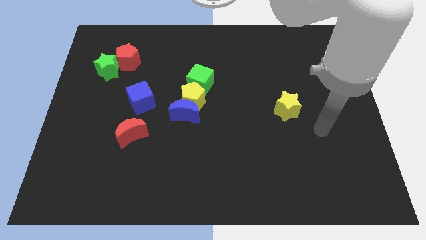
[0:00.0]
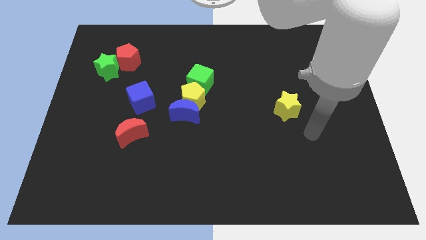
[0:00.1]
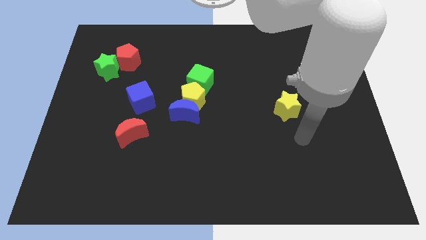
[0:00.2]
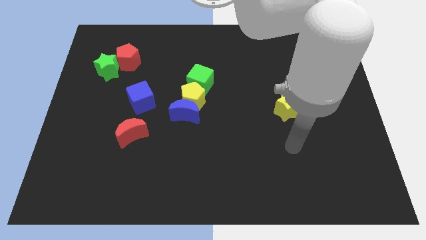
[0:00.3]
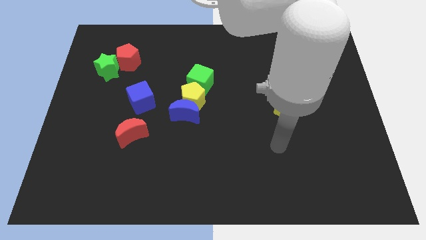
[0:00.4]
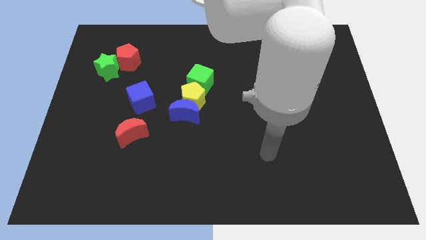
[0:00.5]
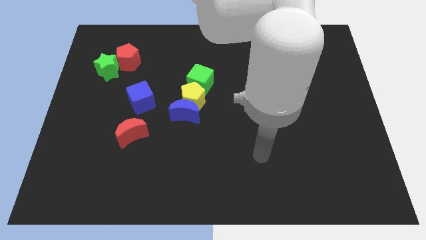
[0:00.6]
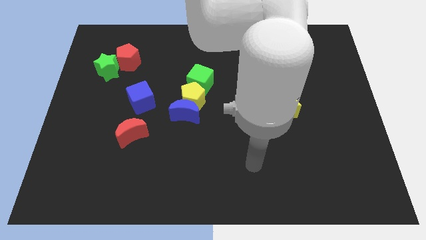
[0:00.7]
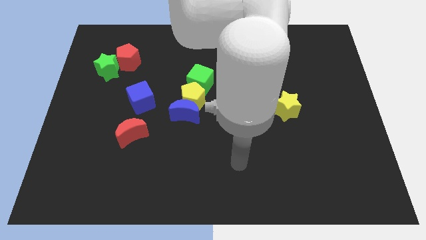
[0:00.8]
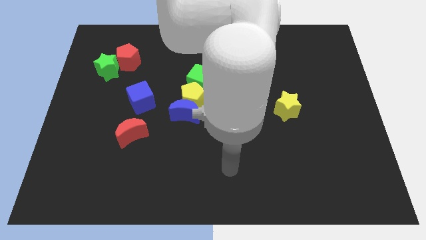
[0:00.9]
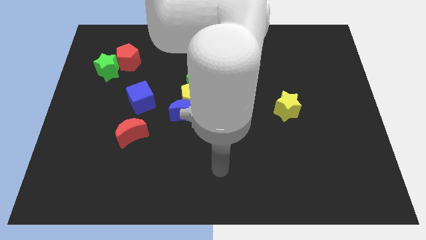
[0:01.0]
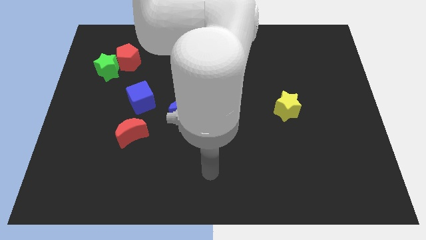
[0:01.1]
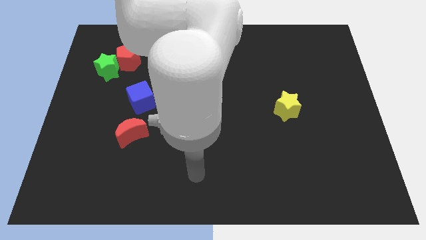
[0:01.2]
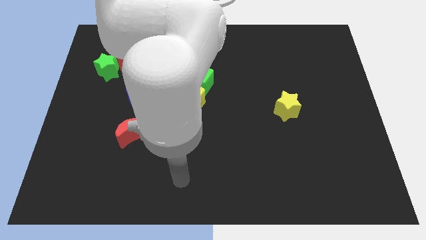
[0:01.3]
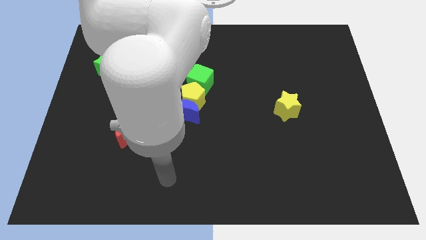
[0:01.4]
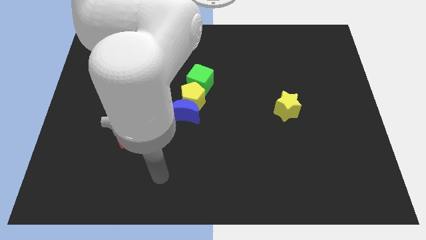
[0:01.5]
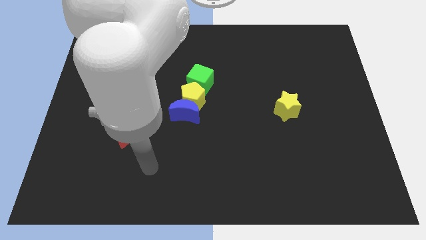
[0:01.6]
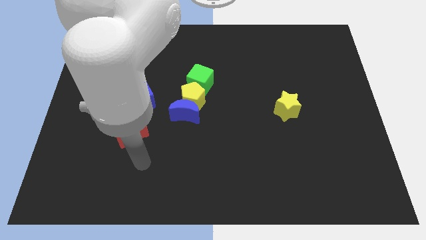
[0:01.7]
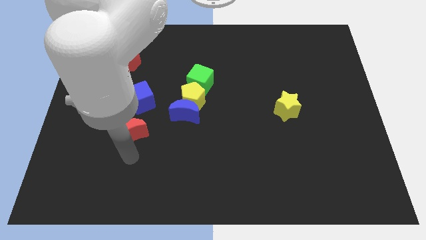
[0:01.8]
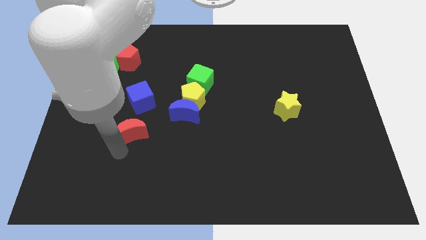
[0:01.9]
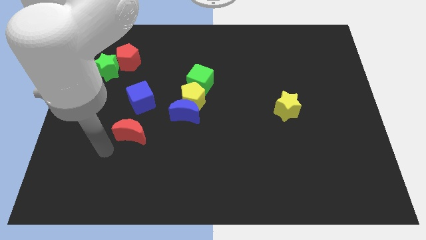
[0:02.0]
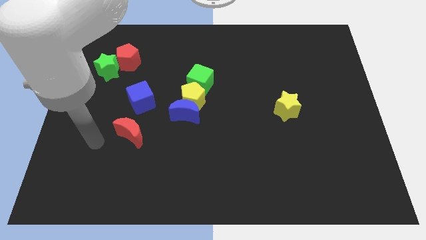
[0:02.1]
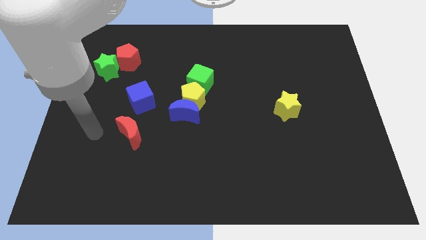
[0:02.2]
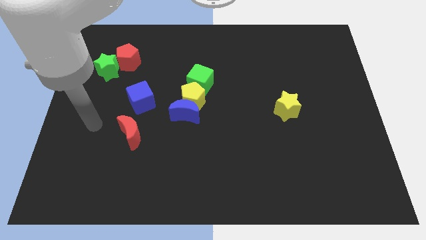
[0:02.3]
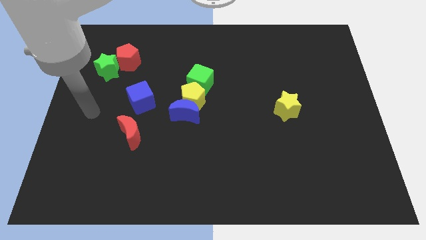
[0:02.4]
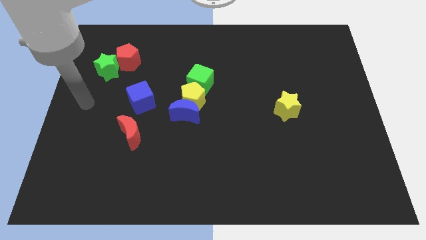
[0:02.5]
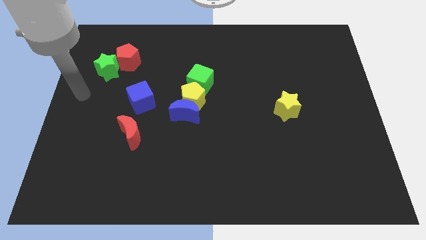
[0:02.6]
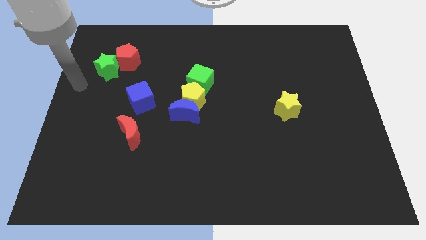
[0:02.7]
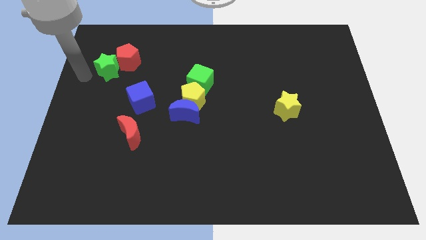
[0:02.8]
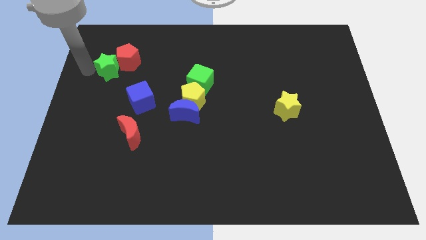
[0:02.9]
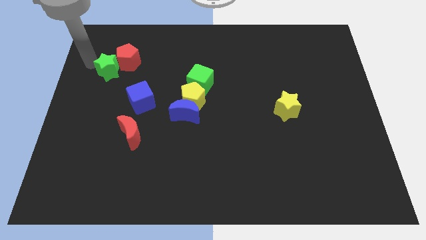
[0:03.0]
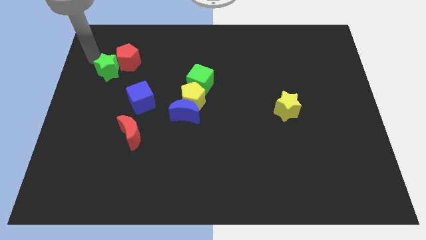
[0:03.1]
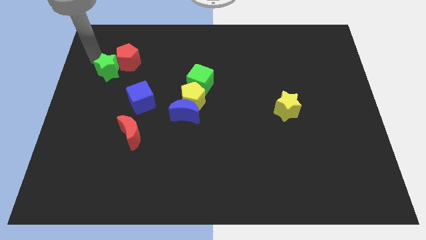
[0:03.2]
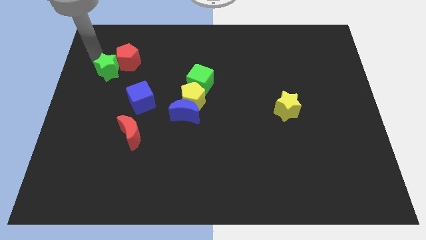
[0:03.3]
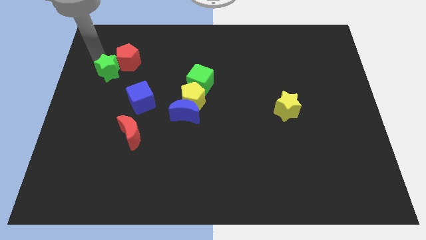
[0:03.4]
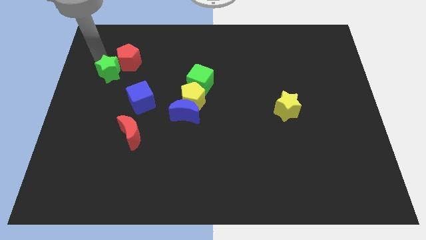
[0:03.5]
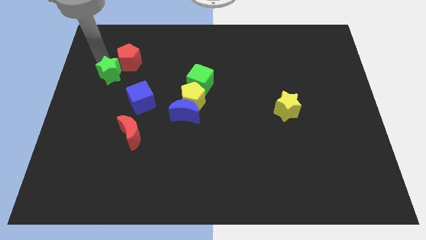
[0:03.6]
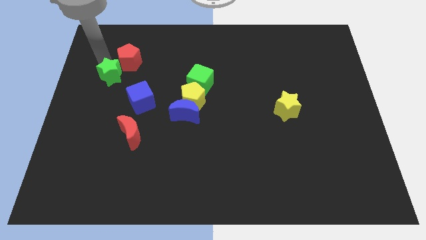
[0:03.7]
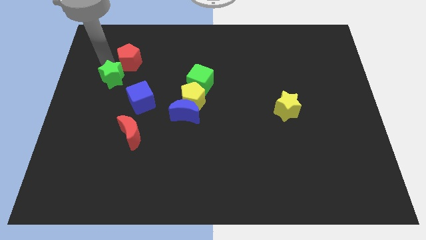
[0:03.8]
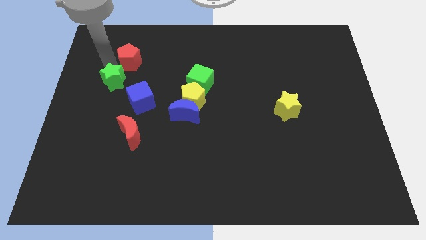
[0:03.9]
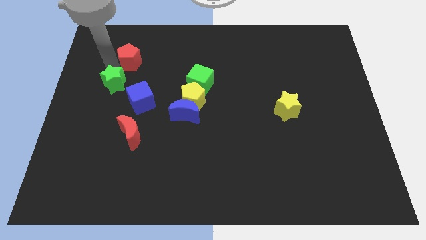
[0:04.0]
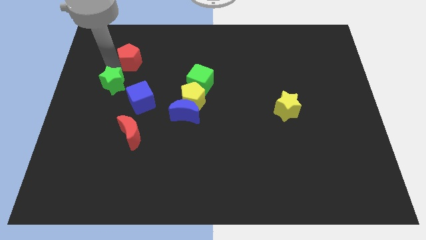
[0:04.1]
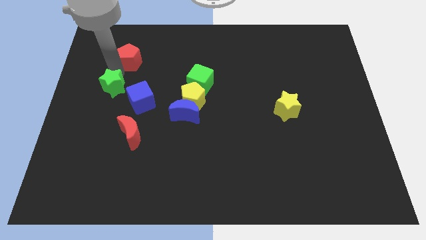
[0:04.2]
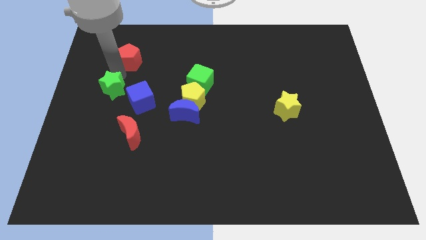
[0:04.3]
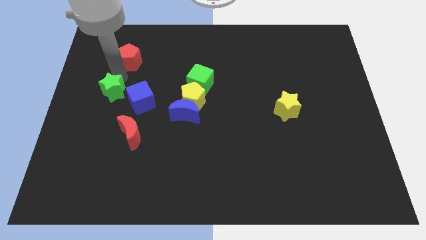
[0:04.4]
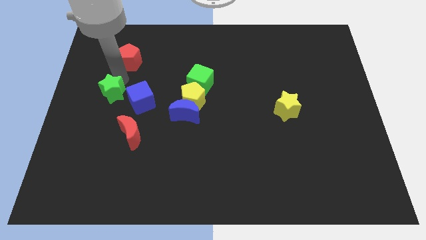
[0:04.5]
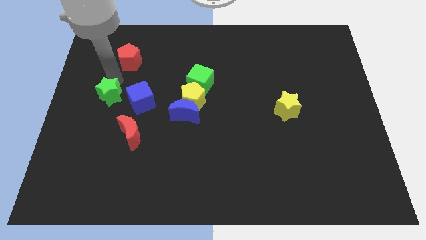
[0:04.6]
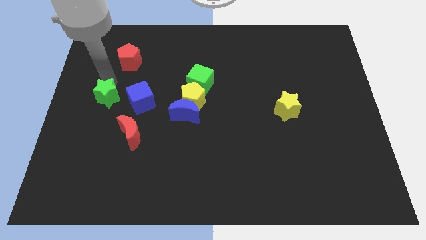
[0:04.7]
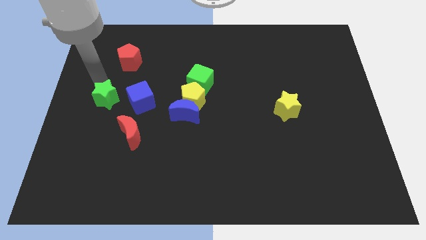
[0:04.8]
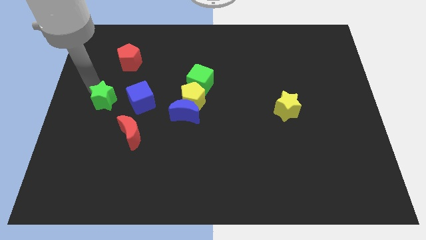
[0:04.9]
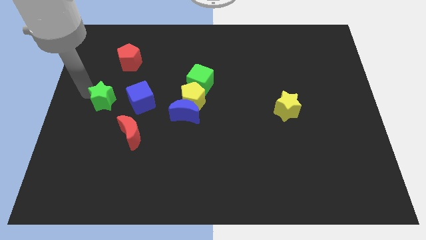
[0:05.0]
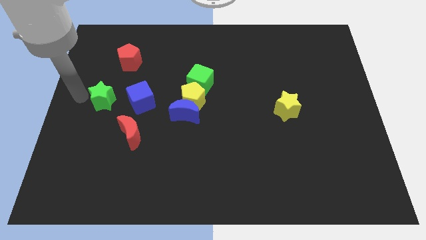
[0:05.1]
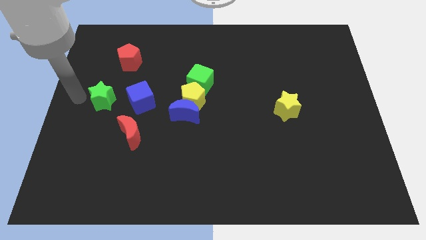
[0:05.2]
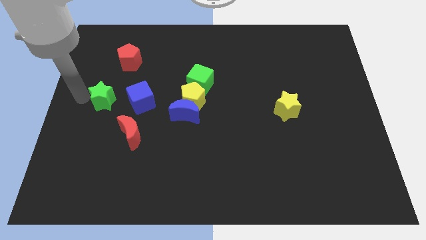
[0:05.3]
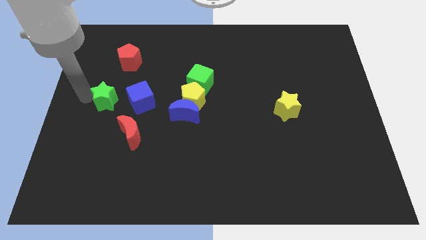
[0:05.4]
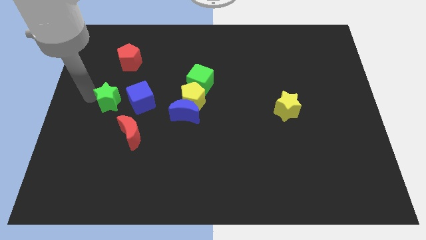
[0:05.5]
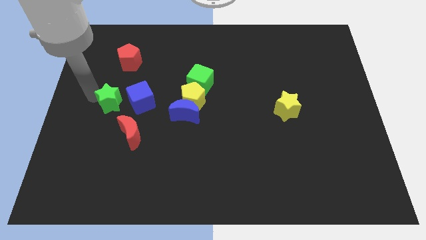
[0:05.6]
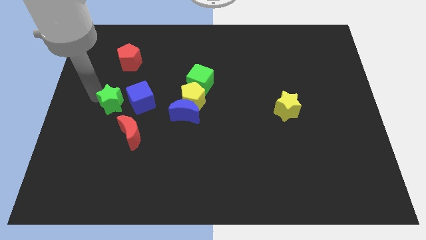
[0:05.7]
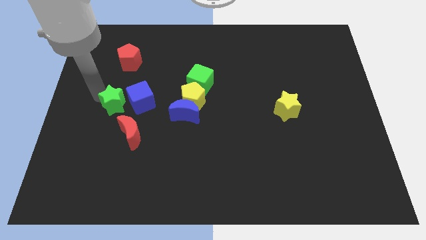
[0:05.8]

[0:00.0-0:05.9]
push the green star towards the blue cube

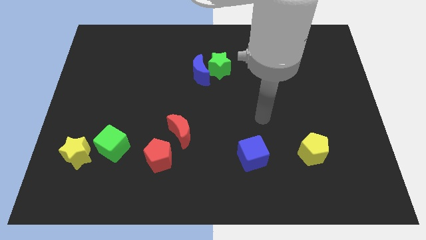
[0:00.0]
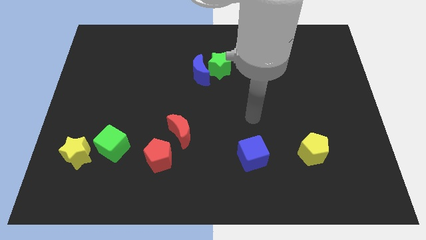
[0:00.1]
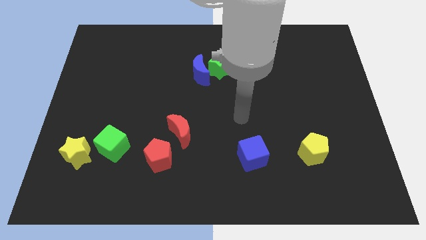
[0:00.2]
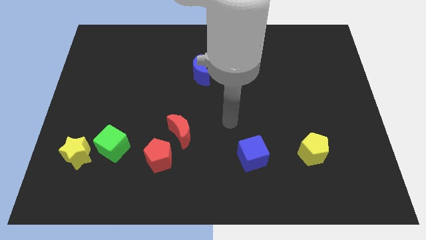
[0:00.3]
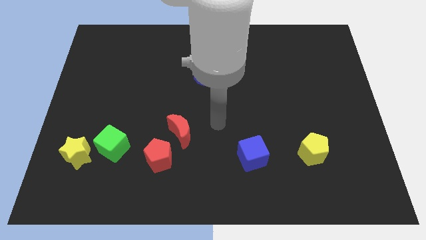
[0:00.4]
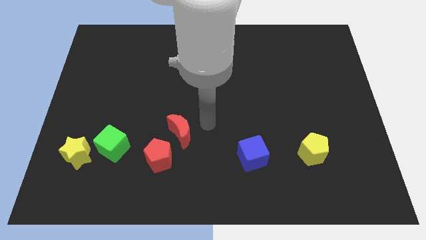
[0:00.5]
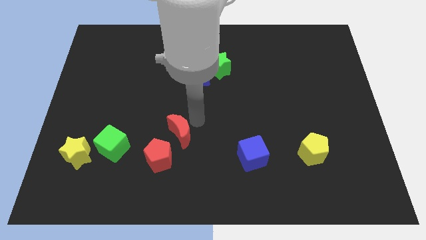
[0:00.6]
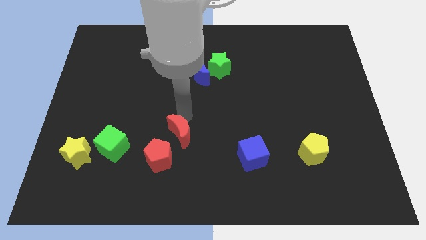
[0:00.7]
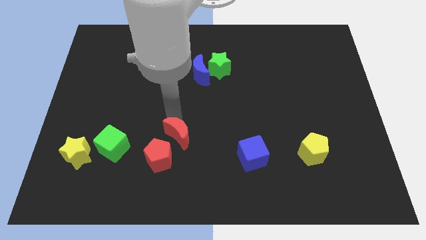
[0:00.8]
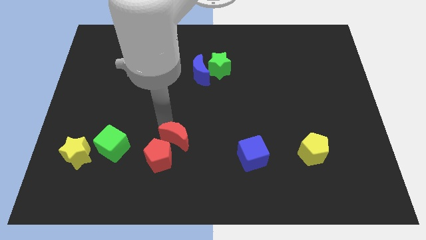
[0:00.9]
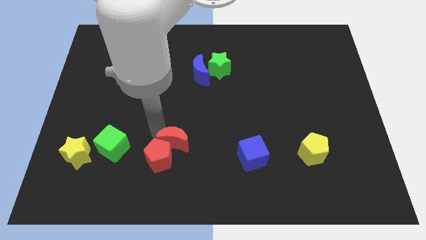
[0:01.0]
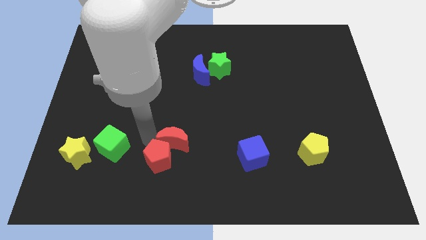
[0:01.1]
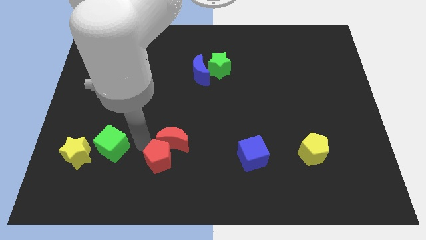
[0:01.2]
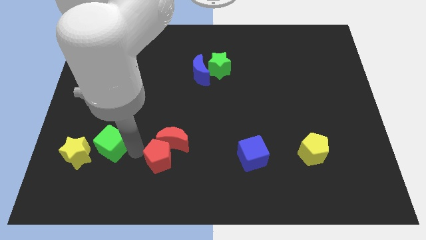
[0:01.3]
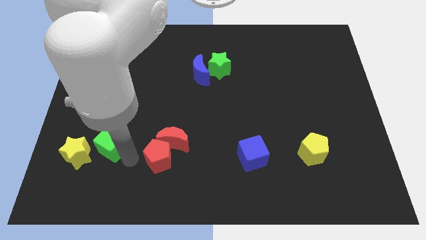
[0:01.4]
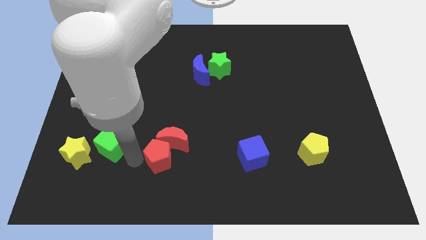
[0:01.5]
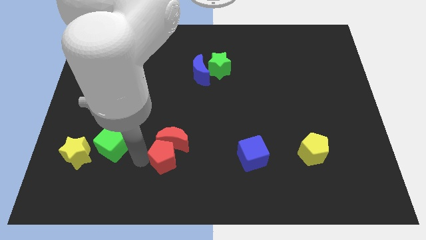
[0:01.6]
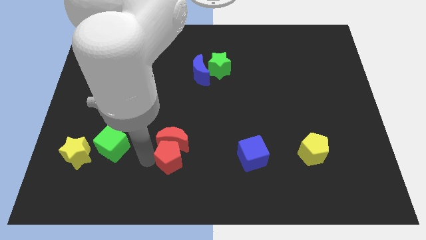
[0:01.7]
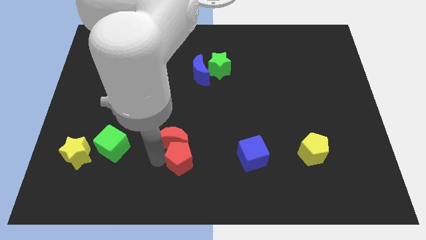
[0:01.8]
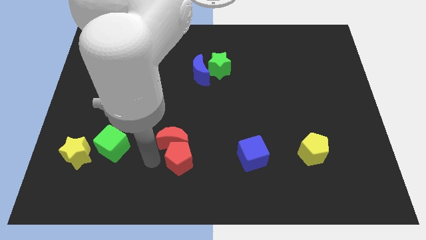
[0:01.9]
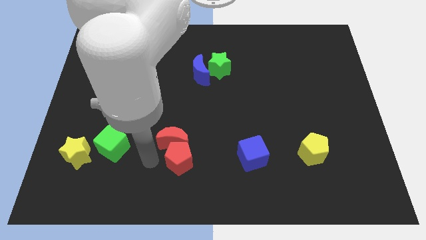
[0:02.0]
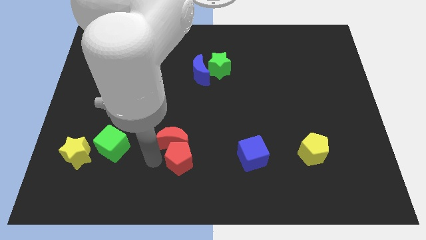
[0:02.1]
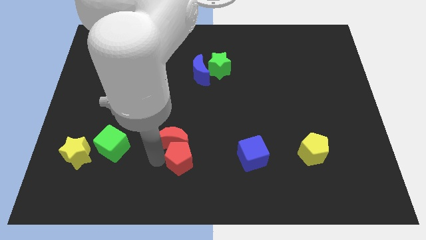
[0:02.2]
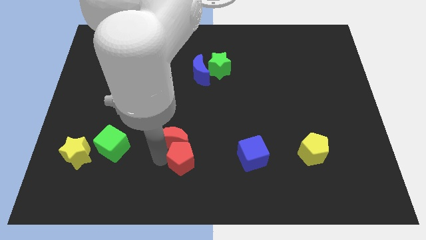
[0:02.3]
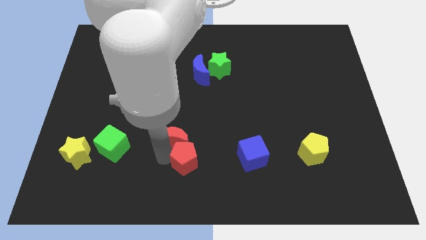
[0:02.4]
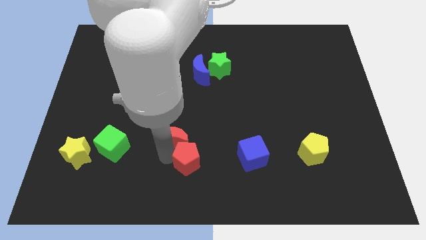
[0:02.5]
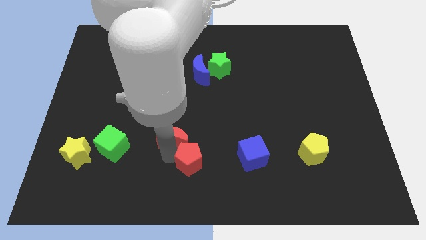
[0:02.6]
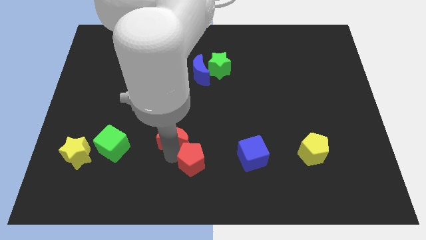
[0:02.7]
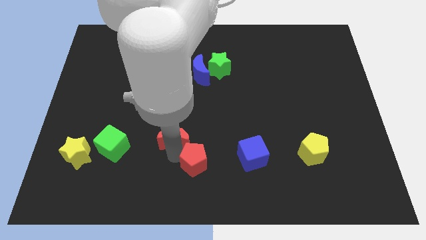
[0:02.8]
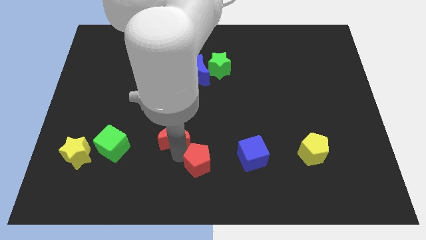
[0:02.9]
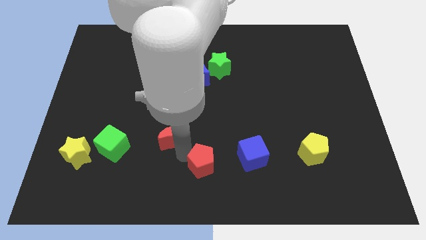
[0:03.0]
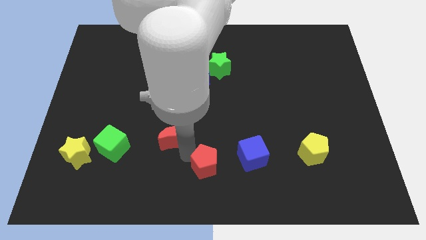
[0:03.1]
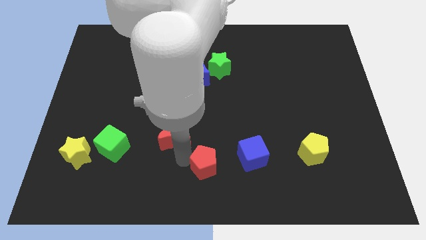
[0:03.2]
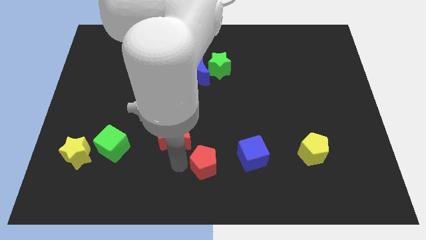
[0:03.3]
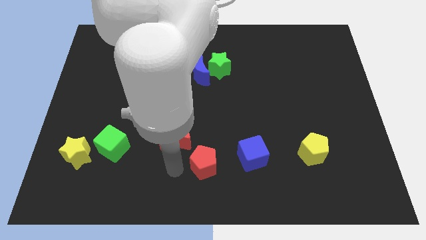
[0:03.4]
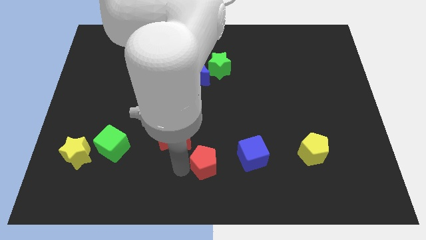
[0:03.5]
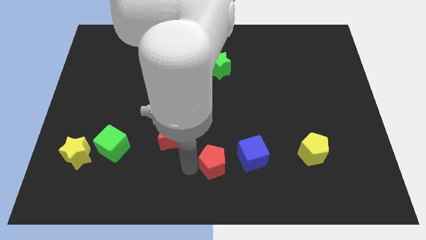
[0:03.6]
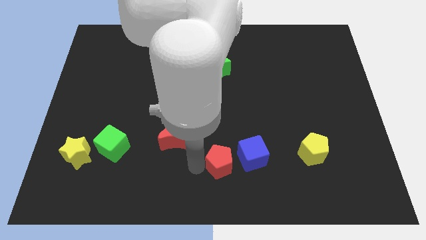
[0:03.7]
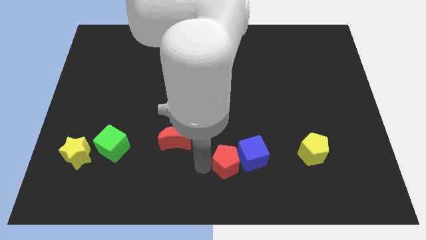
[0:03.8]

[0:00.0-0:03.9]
push the red pentagon close to the blue cube
